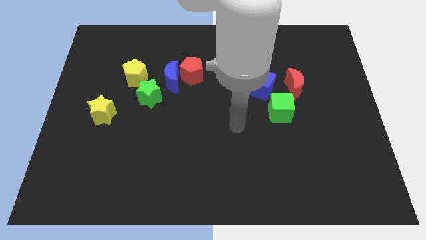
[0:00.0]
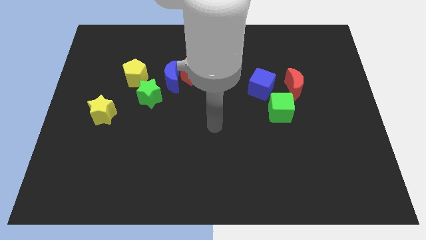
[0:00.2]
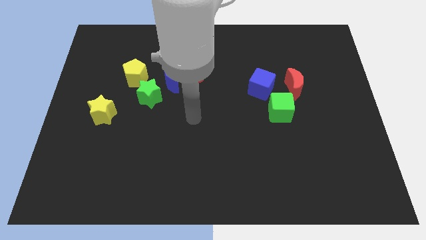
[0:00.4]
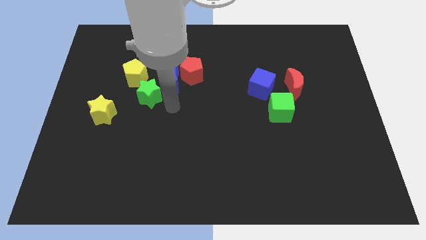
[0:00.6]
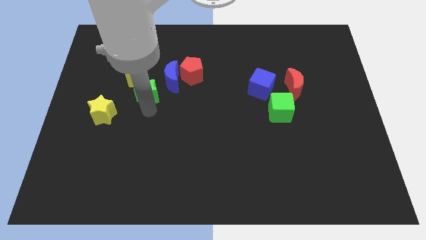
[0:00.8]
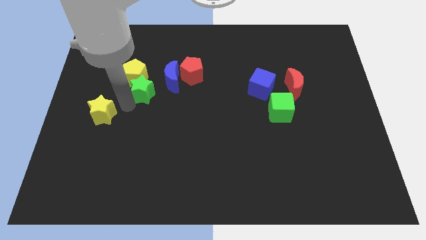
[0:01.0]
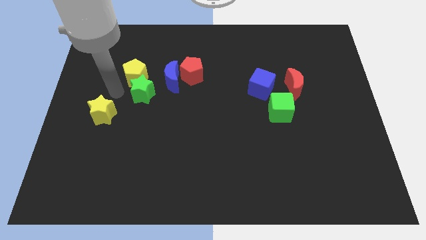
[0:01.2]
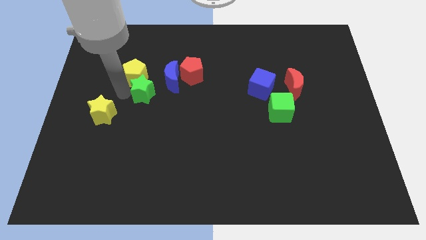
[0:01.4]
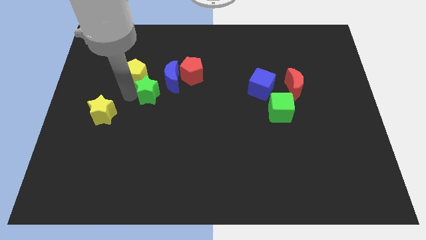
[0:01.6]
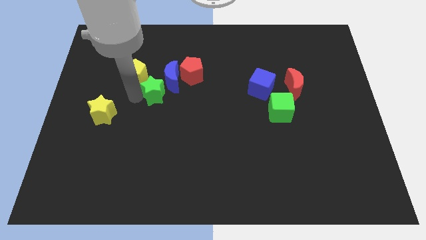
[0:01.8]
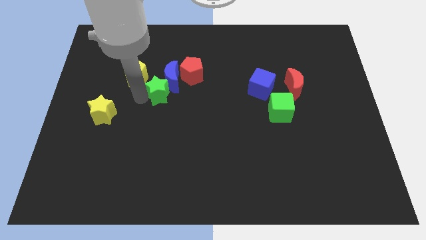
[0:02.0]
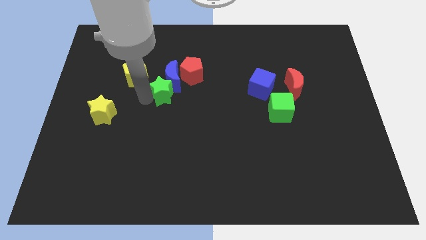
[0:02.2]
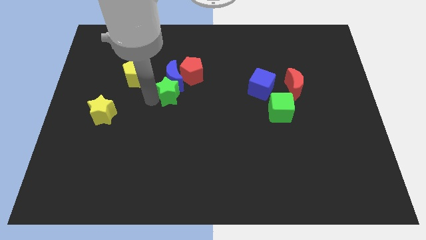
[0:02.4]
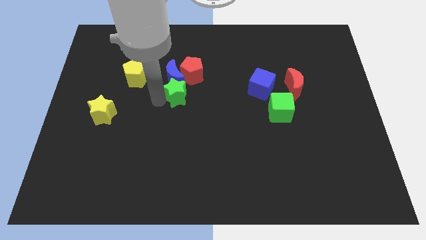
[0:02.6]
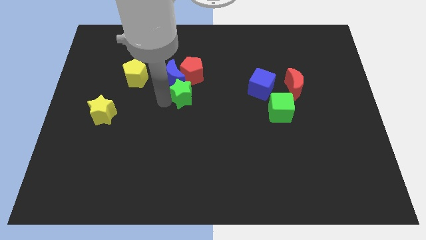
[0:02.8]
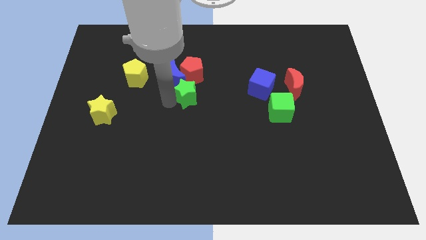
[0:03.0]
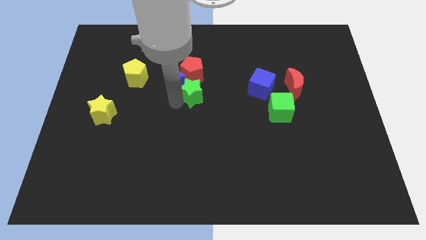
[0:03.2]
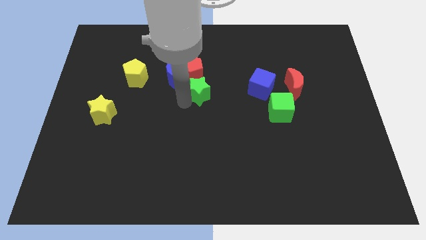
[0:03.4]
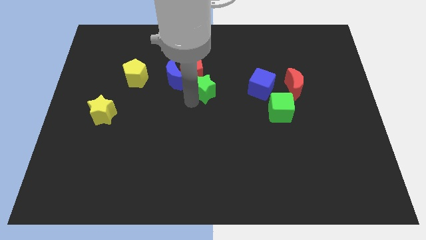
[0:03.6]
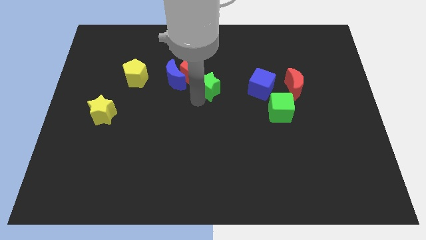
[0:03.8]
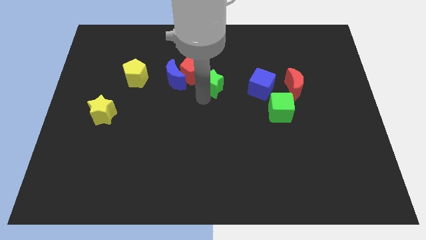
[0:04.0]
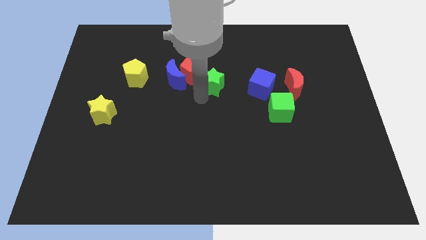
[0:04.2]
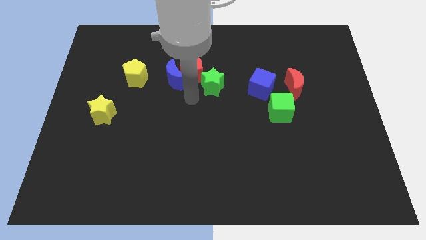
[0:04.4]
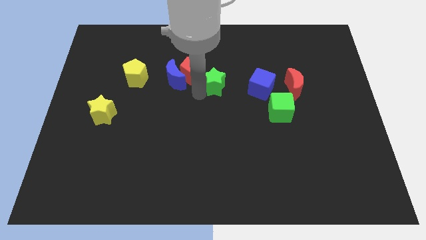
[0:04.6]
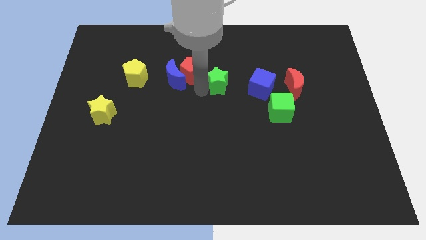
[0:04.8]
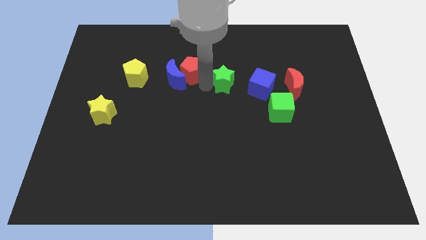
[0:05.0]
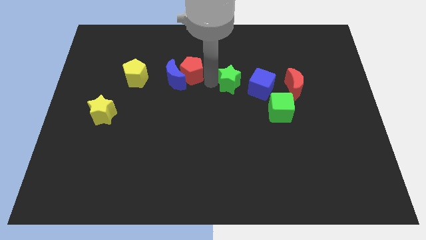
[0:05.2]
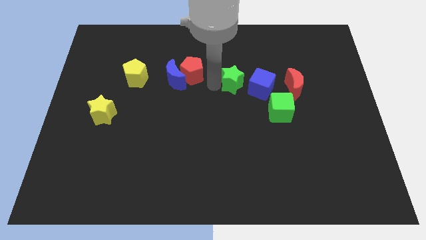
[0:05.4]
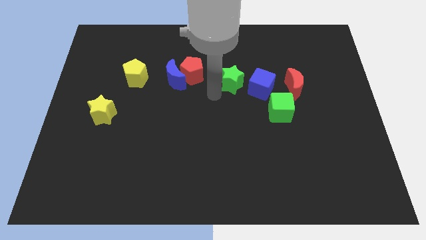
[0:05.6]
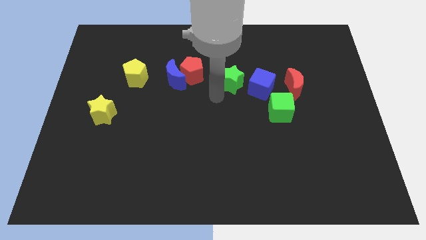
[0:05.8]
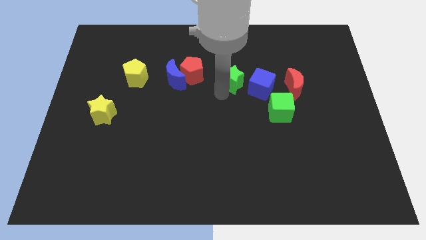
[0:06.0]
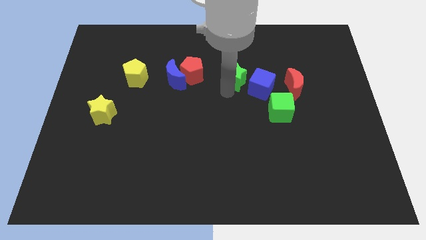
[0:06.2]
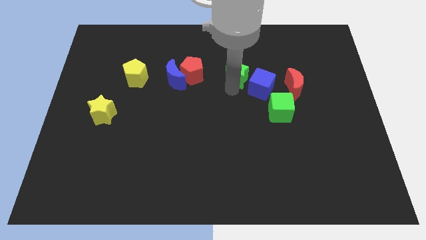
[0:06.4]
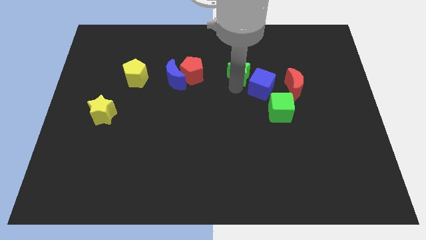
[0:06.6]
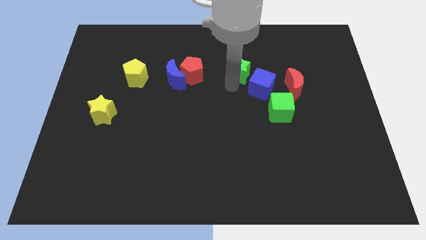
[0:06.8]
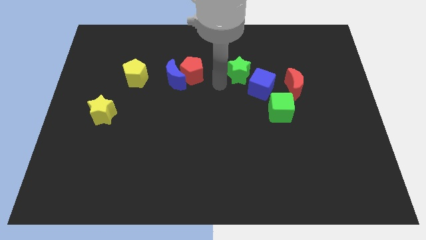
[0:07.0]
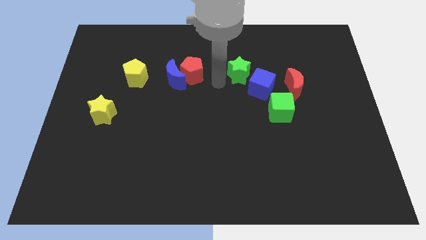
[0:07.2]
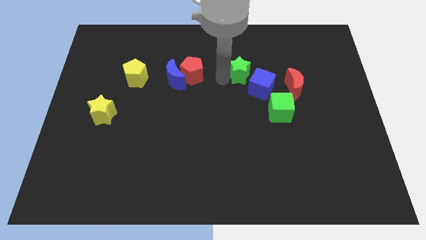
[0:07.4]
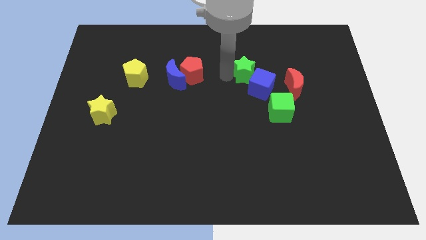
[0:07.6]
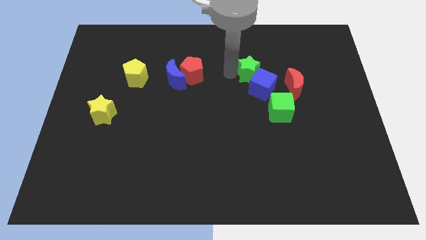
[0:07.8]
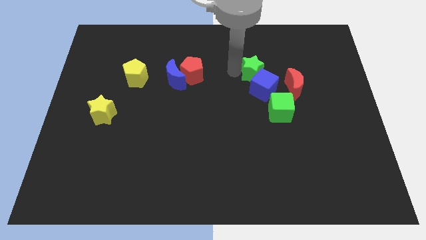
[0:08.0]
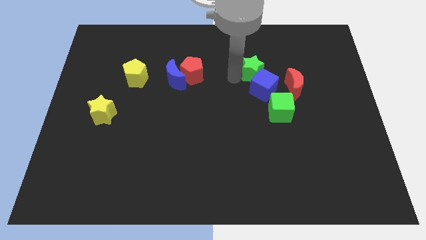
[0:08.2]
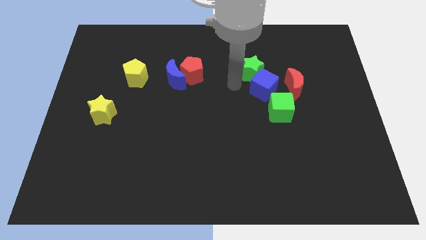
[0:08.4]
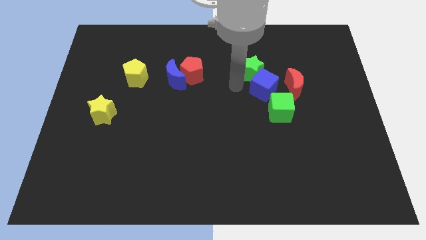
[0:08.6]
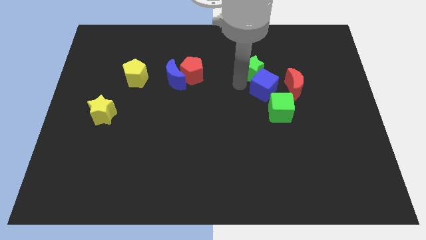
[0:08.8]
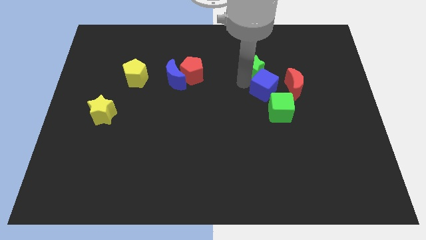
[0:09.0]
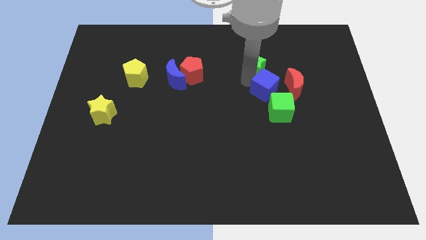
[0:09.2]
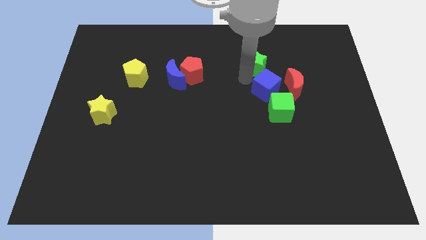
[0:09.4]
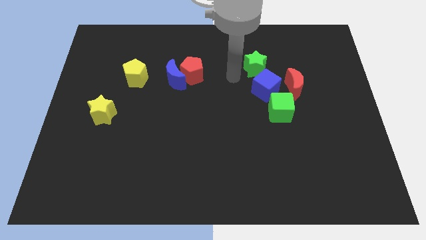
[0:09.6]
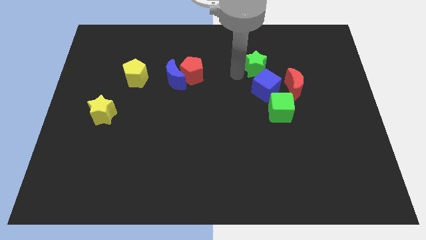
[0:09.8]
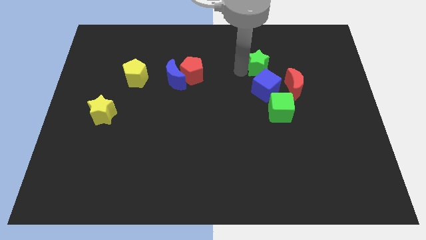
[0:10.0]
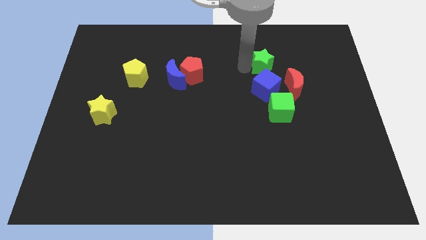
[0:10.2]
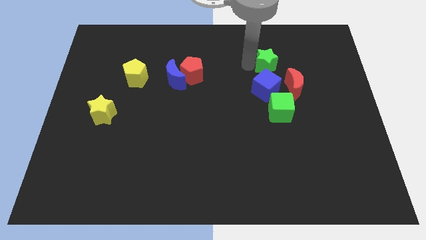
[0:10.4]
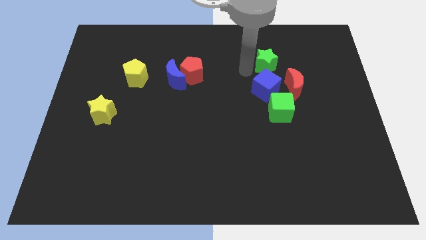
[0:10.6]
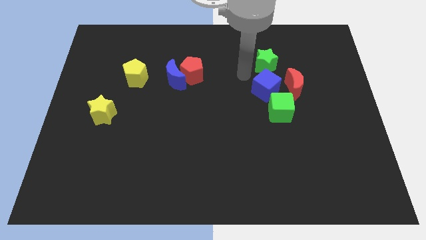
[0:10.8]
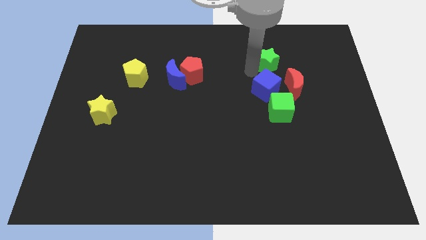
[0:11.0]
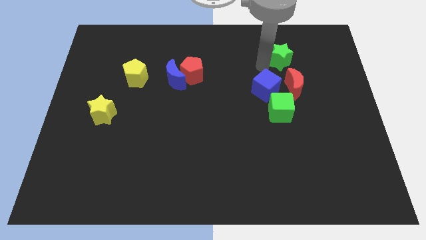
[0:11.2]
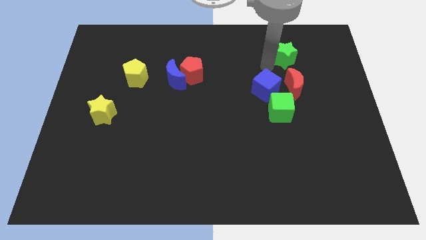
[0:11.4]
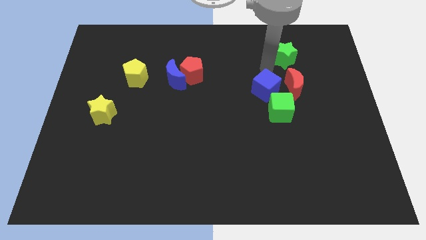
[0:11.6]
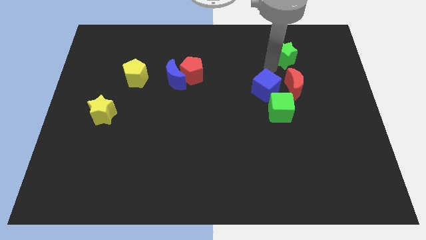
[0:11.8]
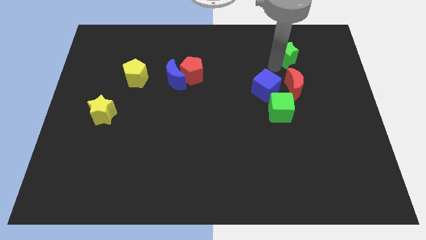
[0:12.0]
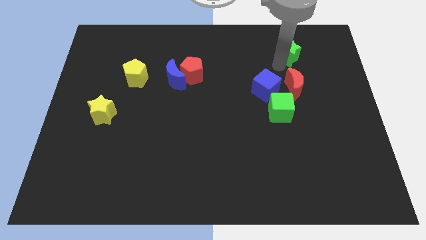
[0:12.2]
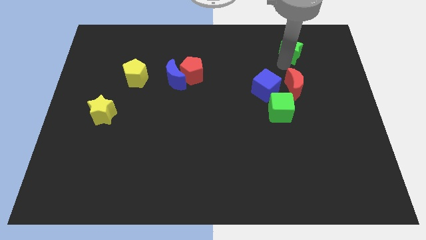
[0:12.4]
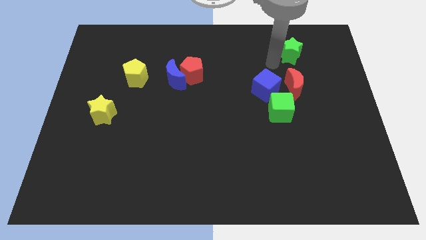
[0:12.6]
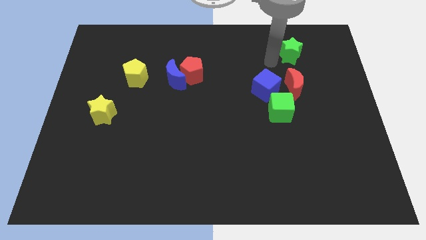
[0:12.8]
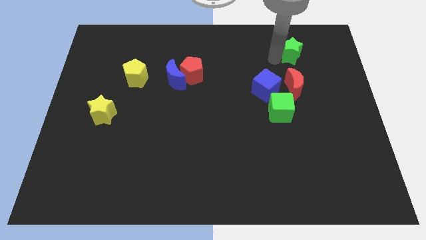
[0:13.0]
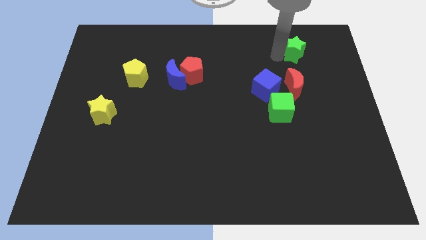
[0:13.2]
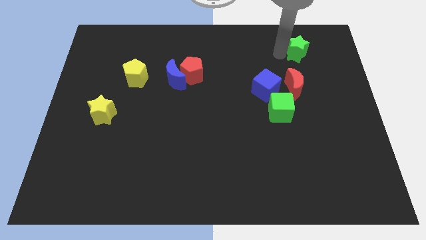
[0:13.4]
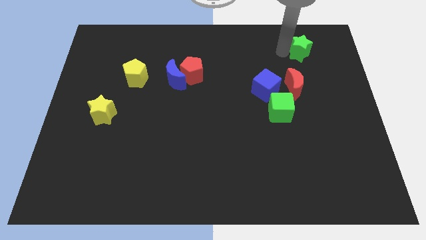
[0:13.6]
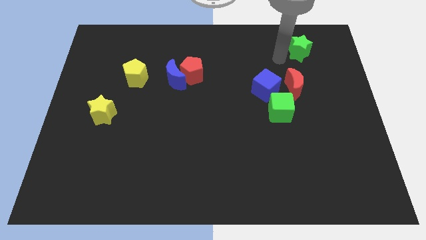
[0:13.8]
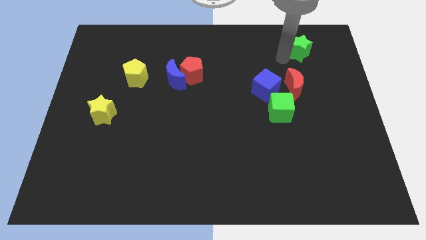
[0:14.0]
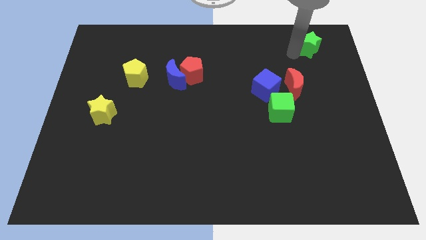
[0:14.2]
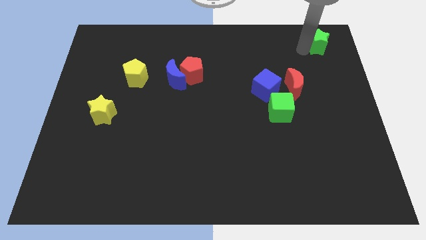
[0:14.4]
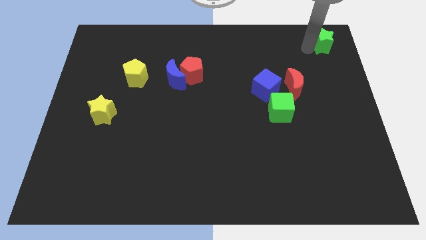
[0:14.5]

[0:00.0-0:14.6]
push the green star to the top right corner
